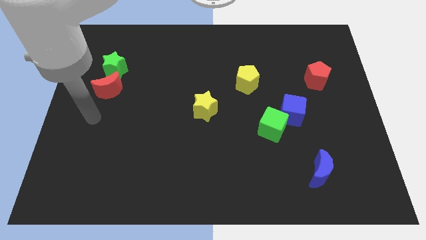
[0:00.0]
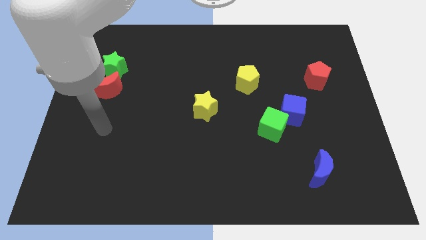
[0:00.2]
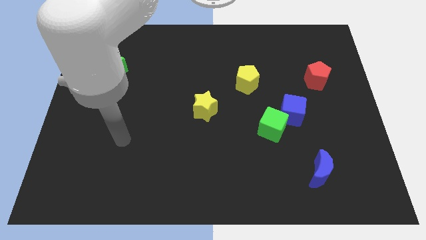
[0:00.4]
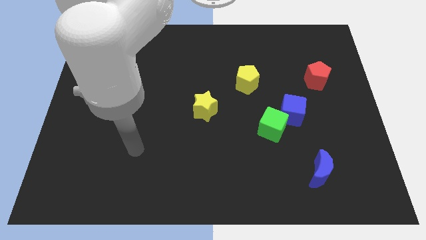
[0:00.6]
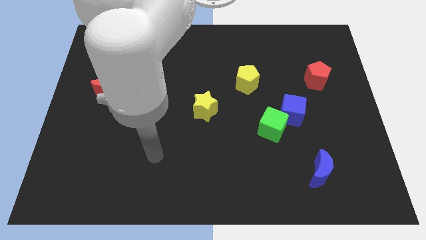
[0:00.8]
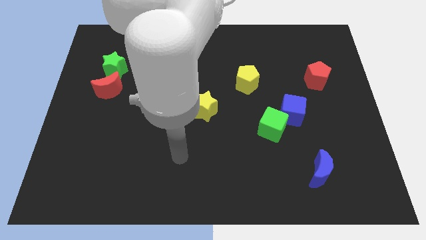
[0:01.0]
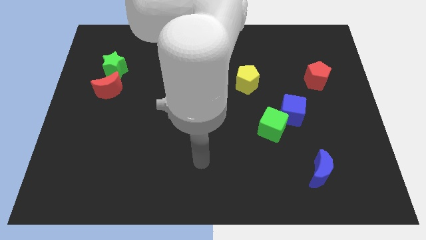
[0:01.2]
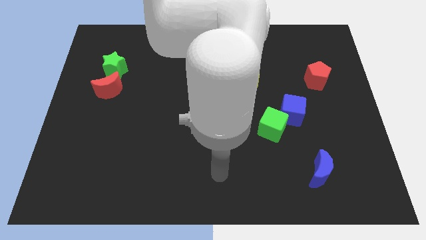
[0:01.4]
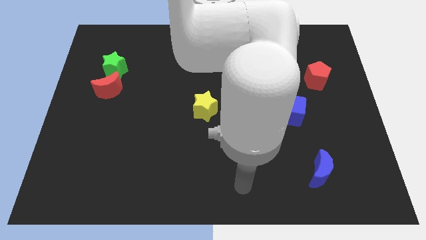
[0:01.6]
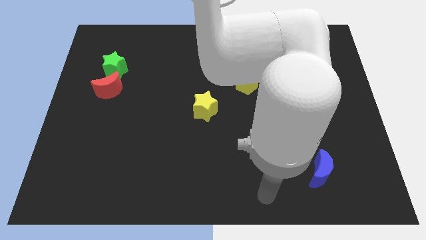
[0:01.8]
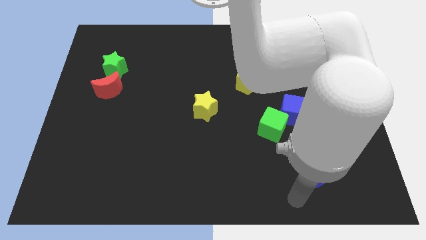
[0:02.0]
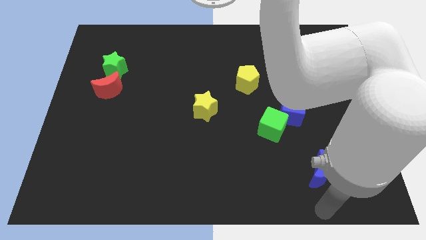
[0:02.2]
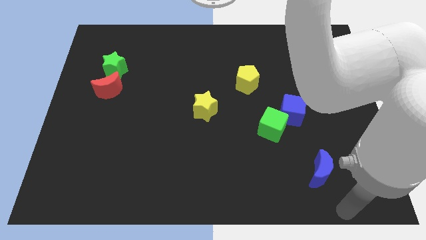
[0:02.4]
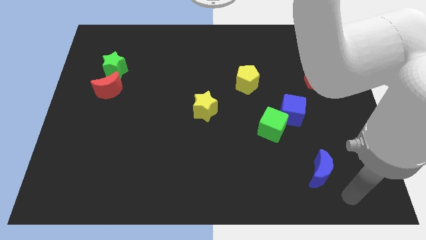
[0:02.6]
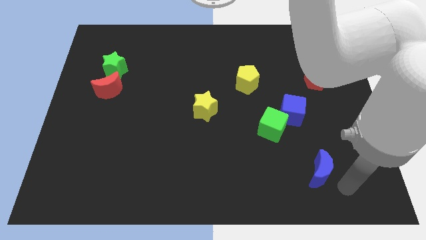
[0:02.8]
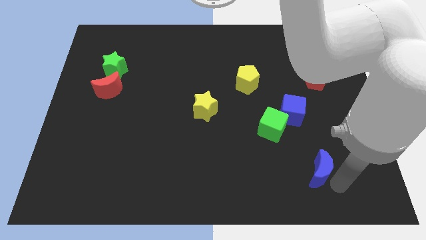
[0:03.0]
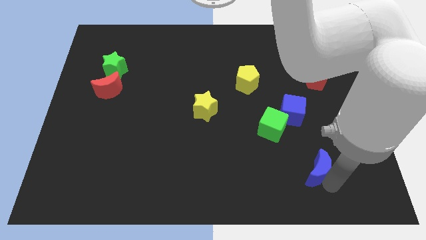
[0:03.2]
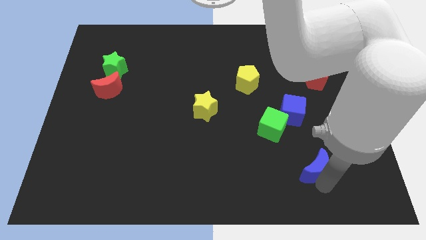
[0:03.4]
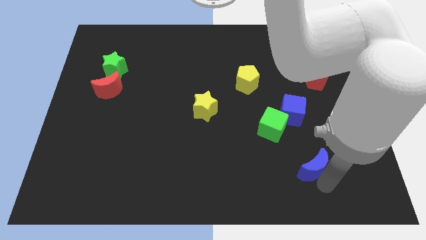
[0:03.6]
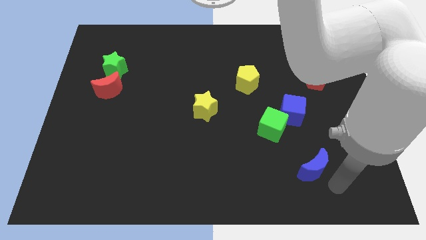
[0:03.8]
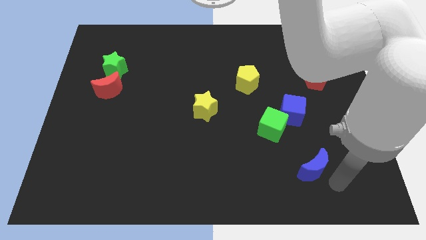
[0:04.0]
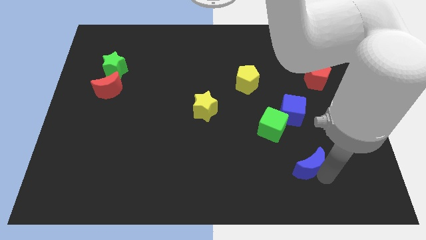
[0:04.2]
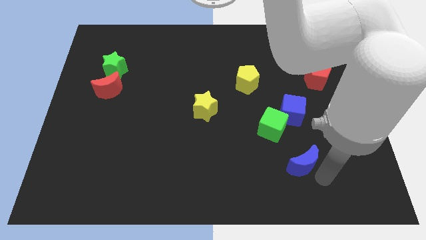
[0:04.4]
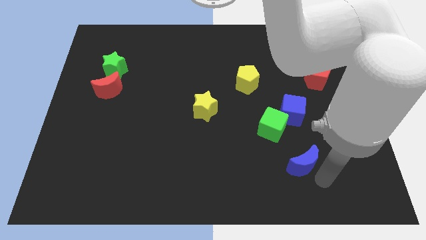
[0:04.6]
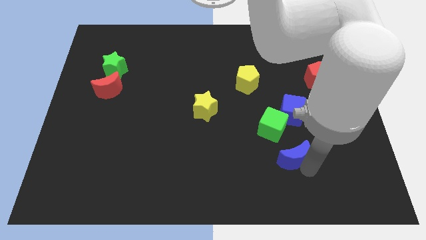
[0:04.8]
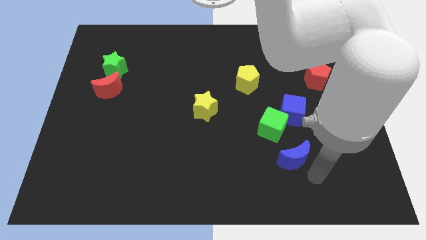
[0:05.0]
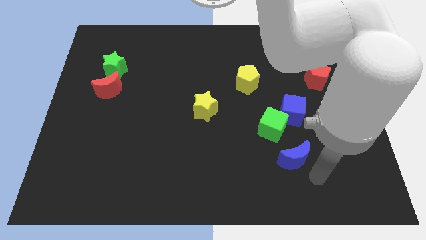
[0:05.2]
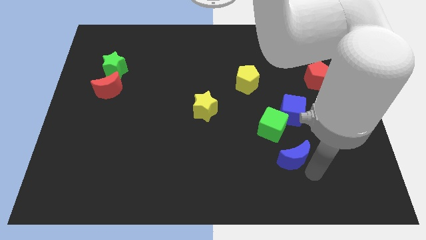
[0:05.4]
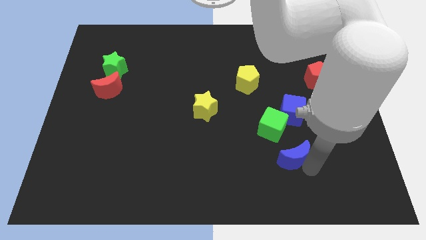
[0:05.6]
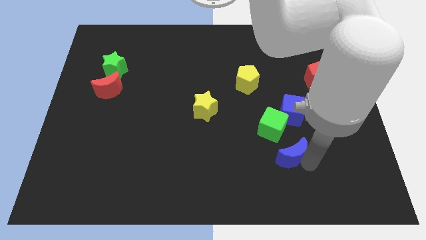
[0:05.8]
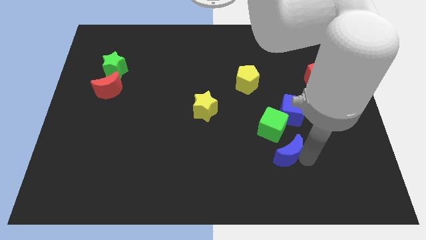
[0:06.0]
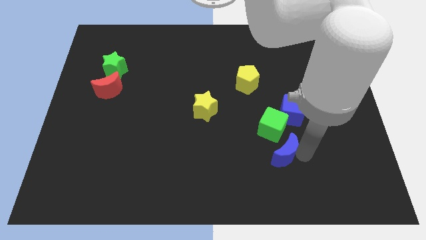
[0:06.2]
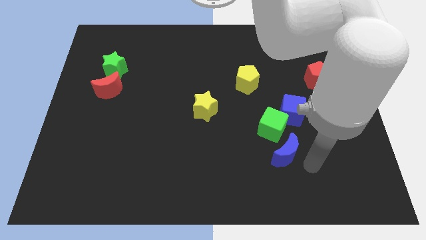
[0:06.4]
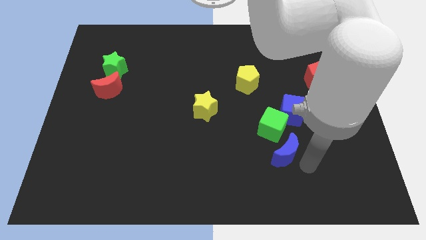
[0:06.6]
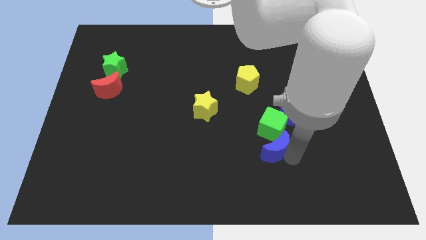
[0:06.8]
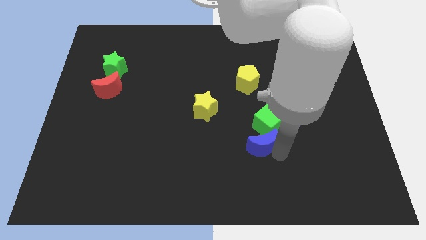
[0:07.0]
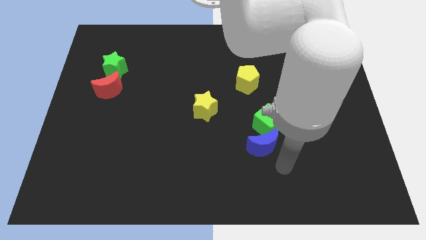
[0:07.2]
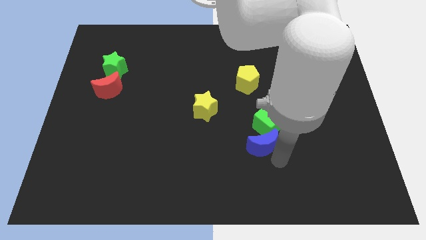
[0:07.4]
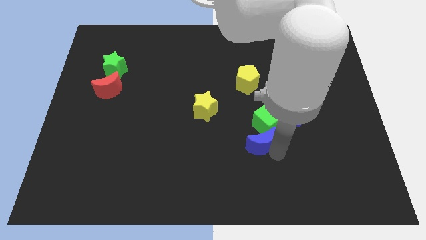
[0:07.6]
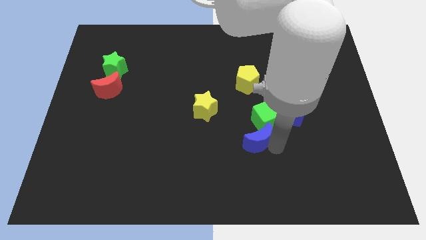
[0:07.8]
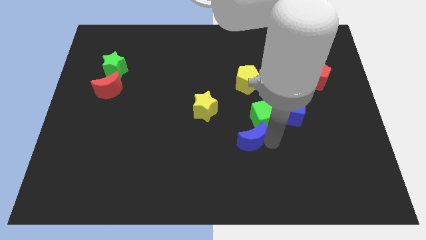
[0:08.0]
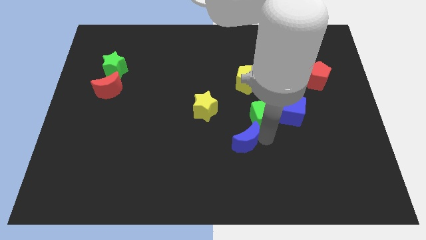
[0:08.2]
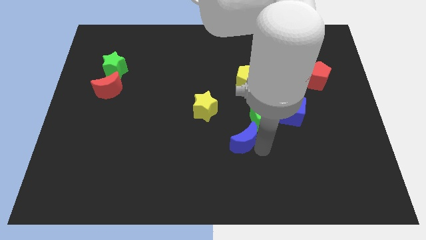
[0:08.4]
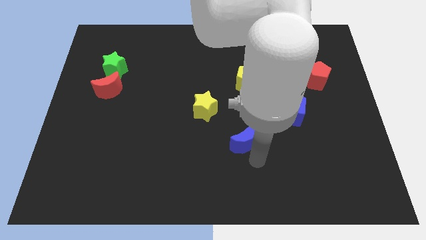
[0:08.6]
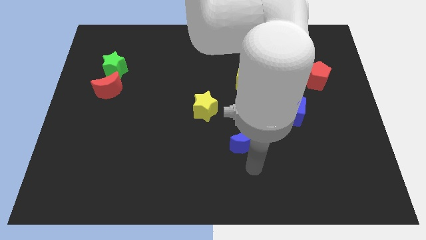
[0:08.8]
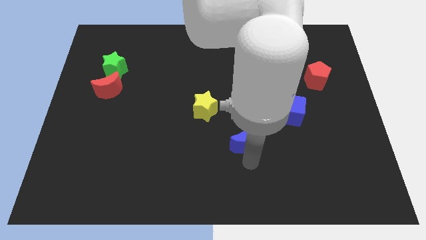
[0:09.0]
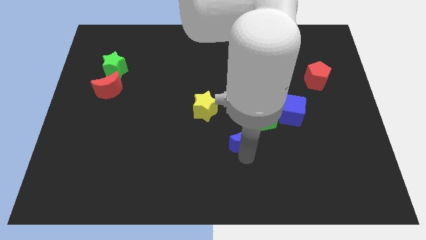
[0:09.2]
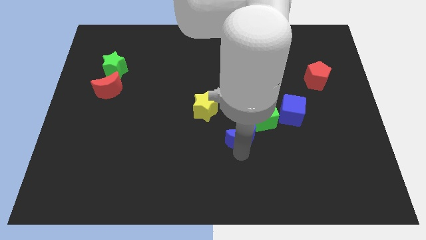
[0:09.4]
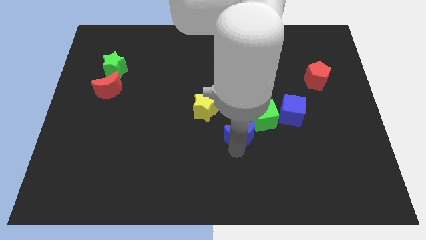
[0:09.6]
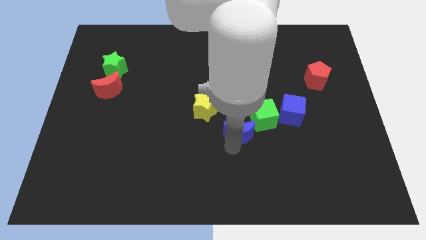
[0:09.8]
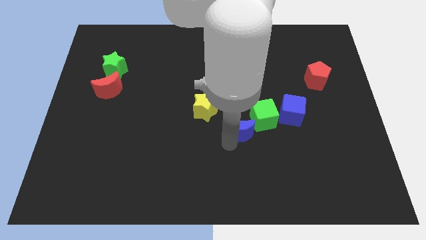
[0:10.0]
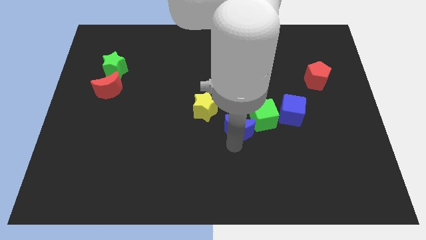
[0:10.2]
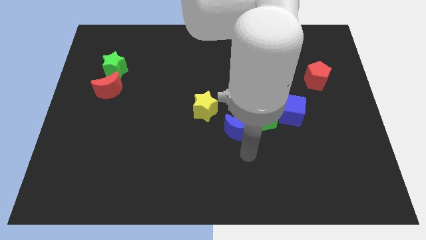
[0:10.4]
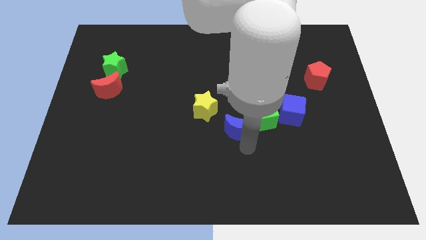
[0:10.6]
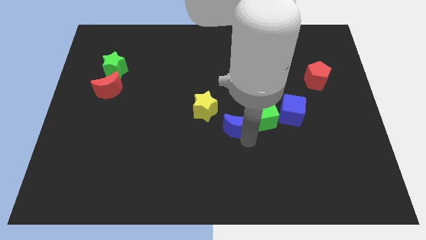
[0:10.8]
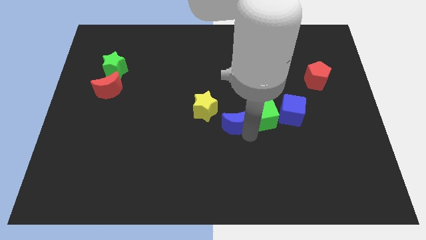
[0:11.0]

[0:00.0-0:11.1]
move the blue moon upwards and to the left

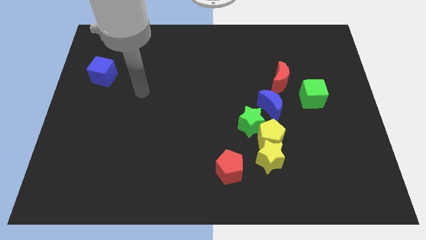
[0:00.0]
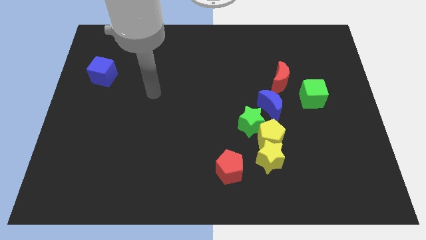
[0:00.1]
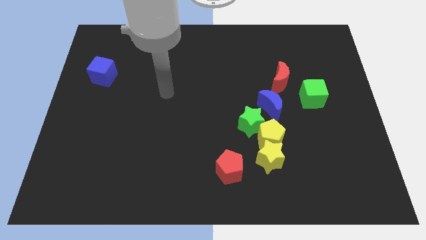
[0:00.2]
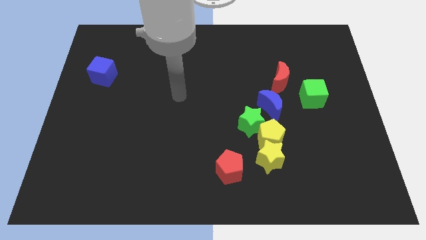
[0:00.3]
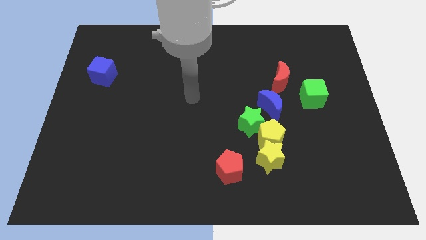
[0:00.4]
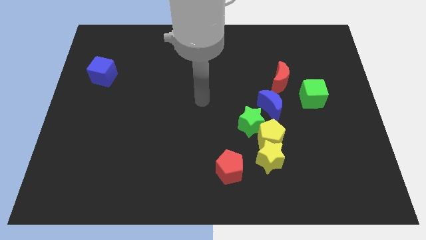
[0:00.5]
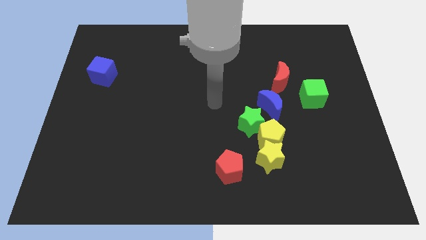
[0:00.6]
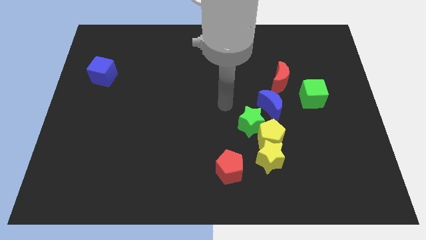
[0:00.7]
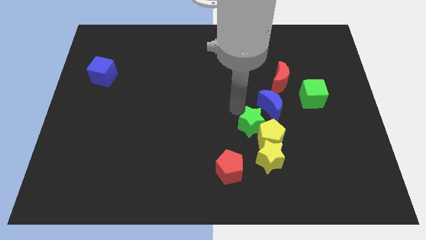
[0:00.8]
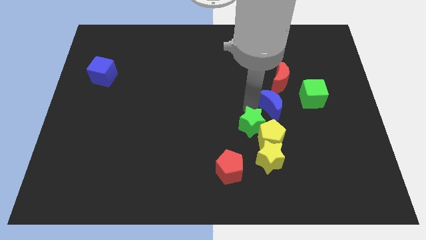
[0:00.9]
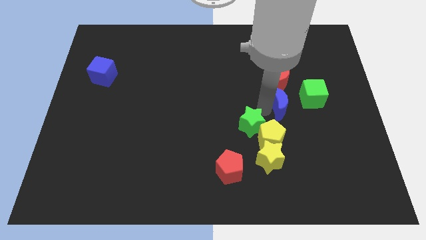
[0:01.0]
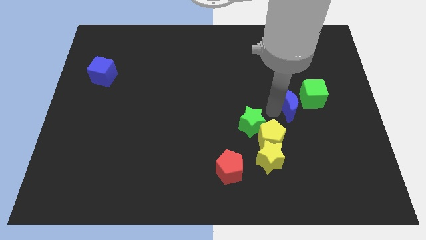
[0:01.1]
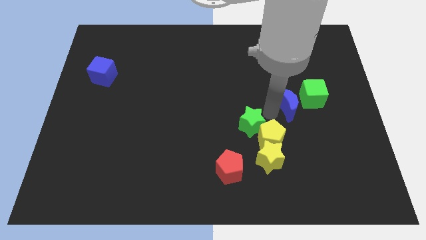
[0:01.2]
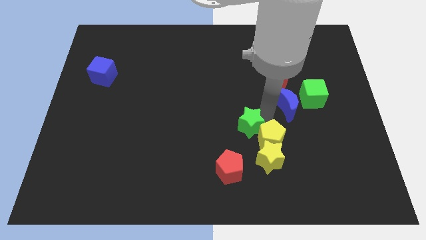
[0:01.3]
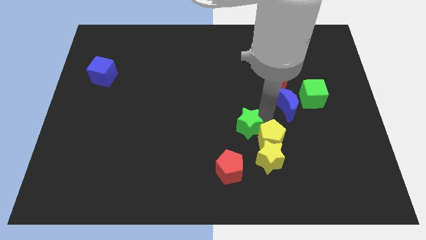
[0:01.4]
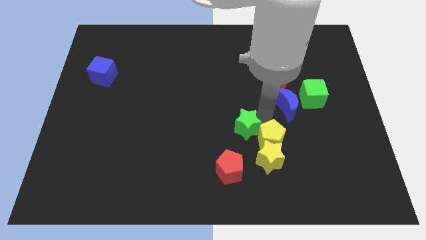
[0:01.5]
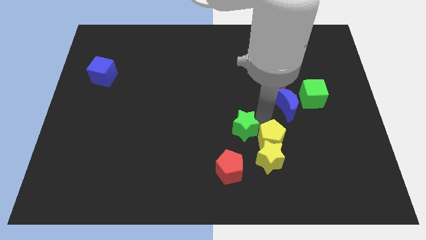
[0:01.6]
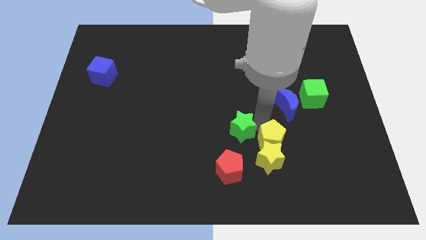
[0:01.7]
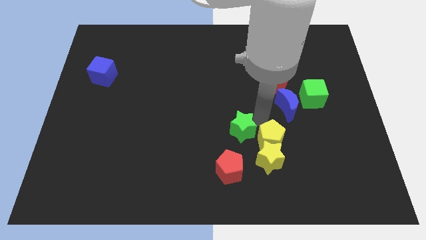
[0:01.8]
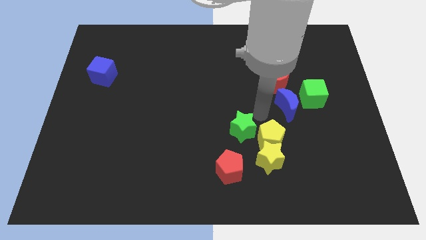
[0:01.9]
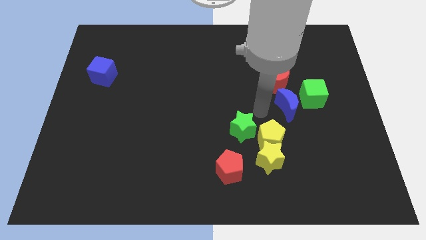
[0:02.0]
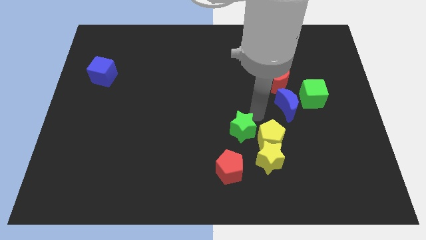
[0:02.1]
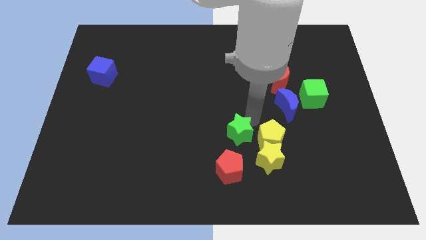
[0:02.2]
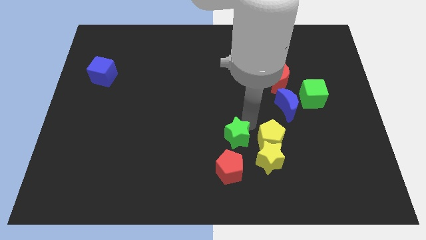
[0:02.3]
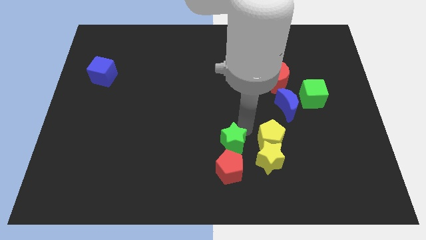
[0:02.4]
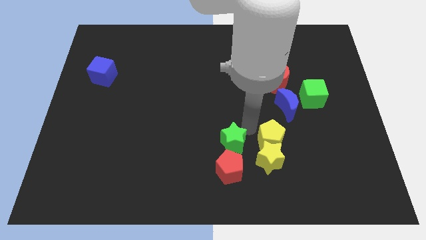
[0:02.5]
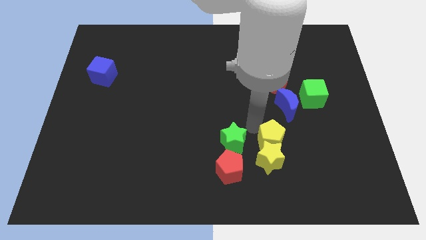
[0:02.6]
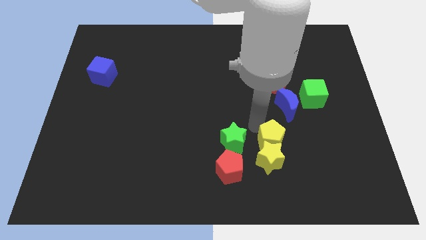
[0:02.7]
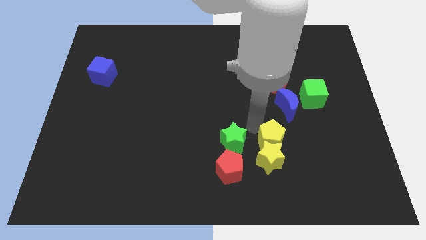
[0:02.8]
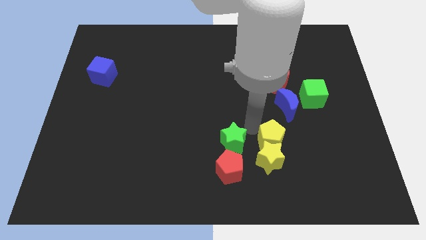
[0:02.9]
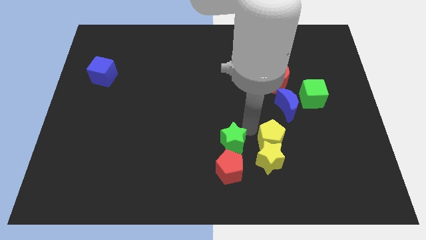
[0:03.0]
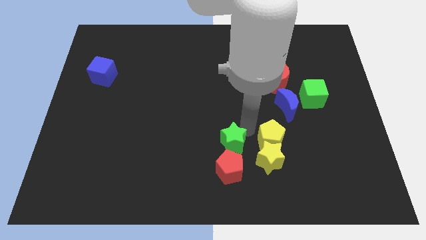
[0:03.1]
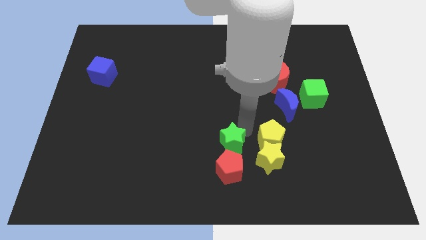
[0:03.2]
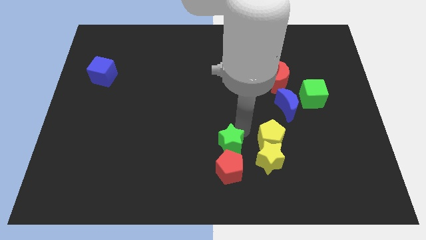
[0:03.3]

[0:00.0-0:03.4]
slide the green star downwards and left diagonally a bit
